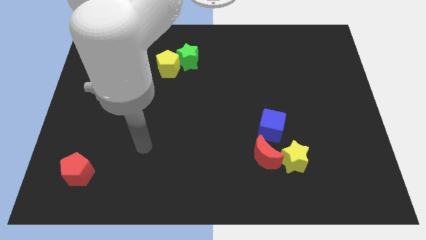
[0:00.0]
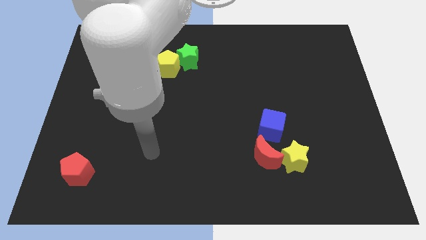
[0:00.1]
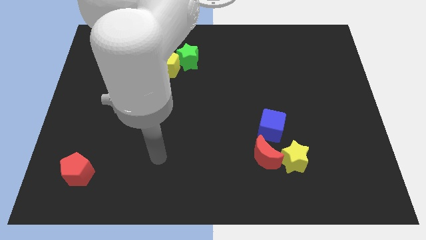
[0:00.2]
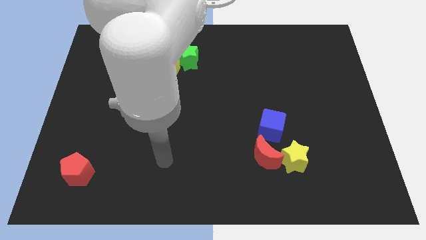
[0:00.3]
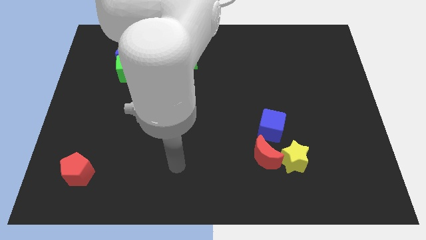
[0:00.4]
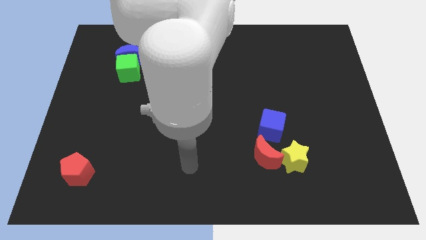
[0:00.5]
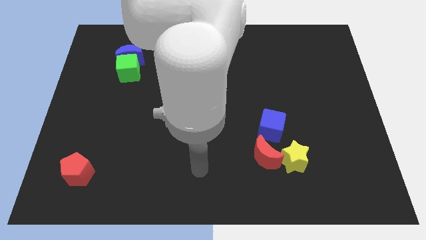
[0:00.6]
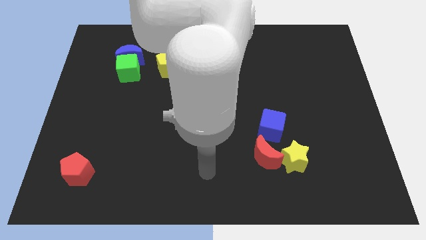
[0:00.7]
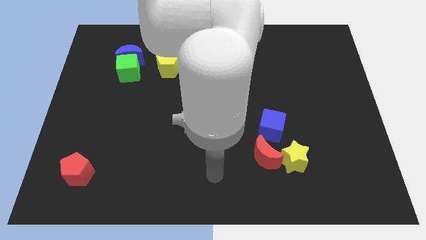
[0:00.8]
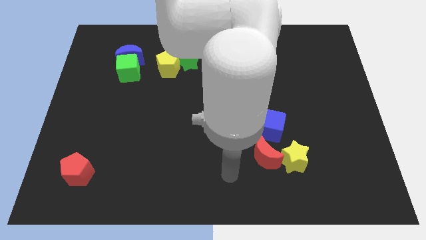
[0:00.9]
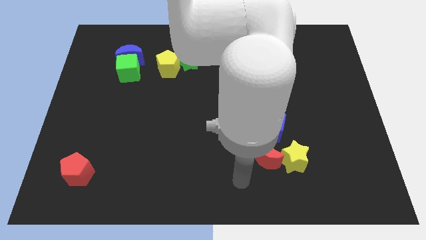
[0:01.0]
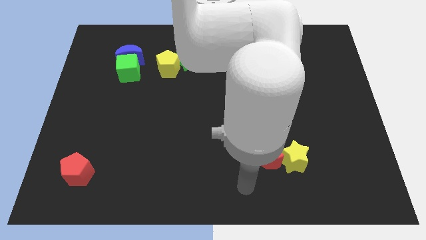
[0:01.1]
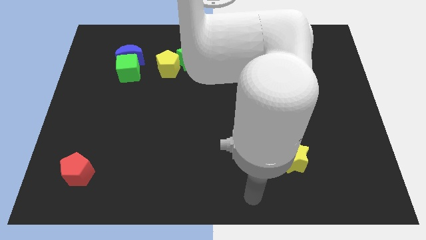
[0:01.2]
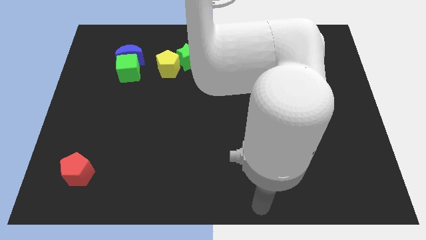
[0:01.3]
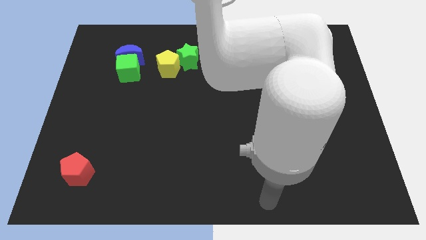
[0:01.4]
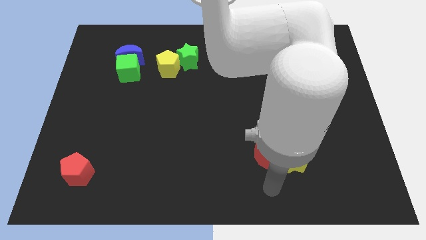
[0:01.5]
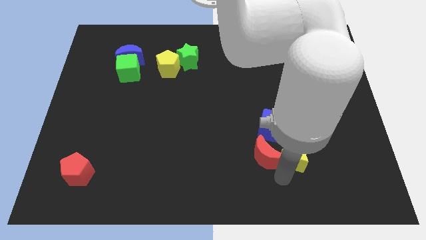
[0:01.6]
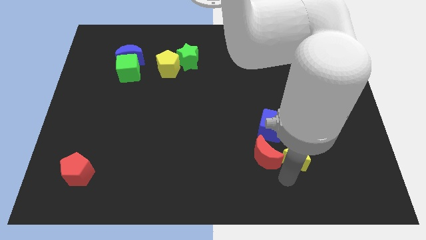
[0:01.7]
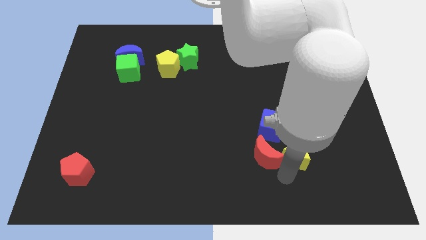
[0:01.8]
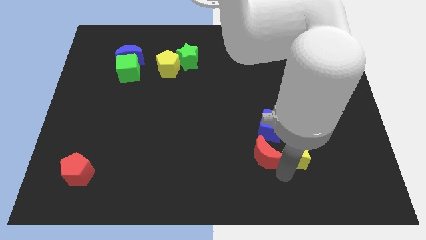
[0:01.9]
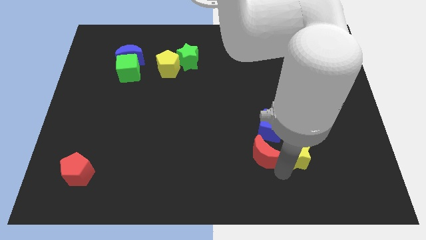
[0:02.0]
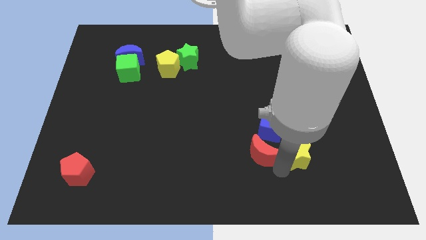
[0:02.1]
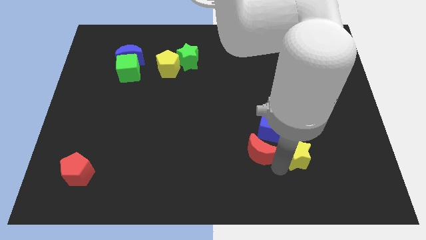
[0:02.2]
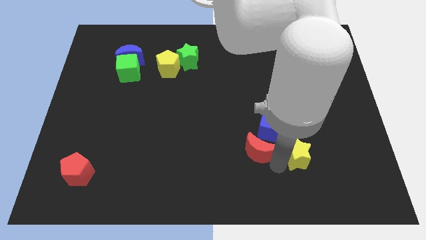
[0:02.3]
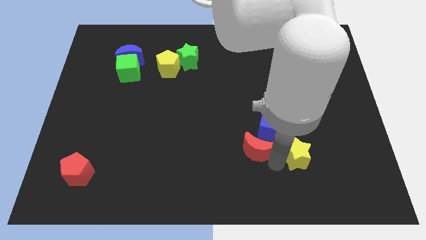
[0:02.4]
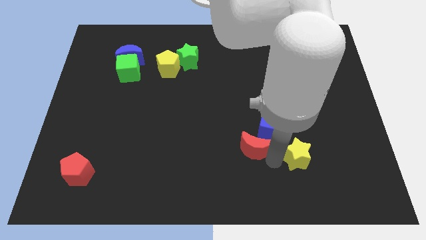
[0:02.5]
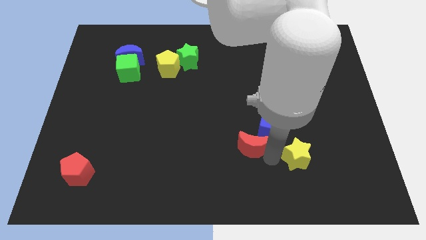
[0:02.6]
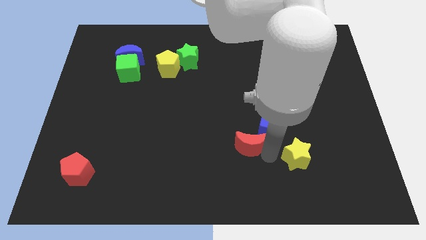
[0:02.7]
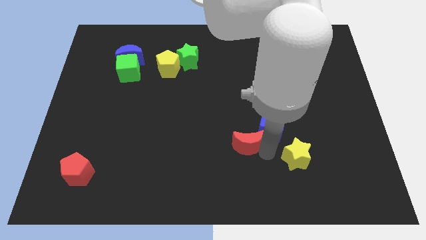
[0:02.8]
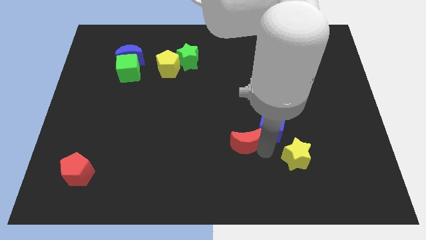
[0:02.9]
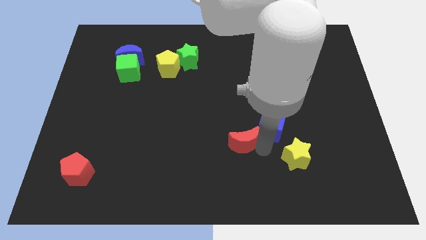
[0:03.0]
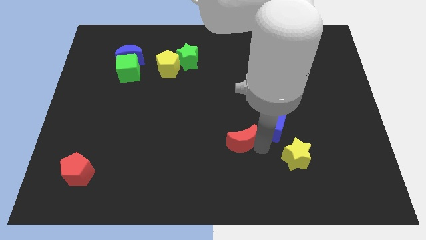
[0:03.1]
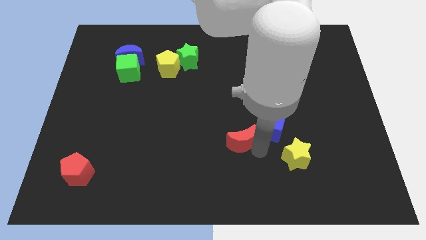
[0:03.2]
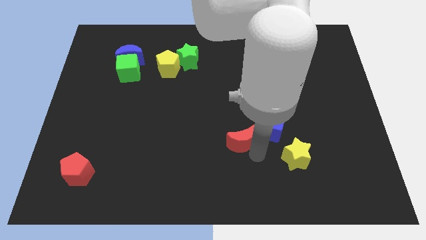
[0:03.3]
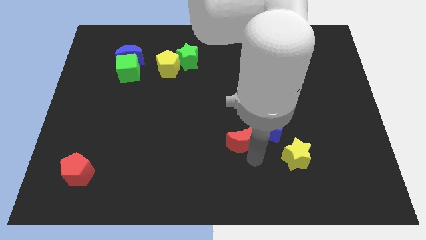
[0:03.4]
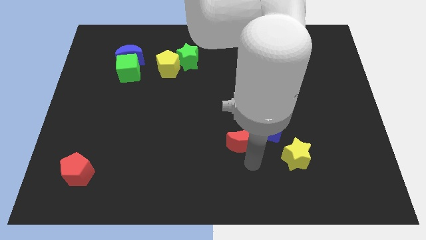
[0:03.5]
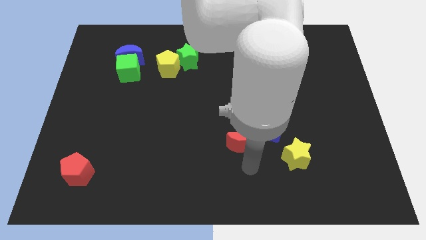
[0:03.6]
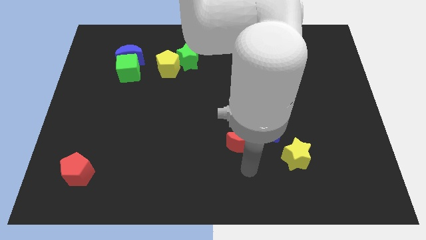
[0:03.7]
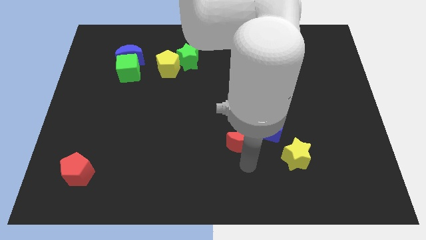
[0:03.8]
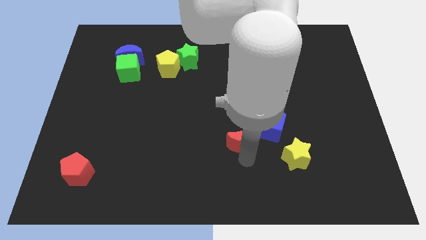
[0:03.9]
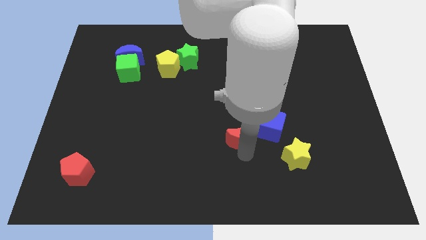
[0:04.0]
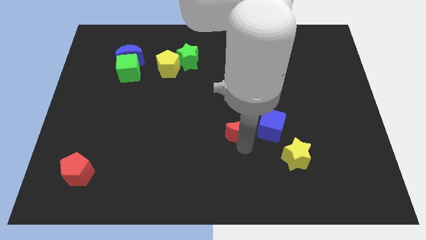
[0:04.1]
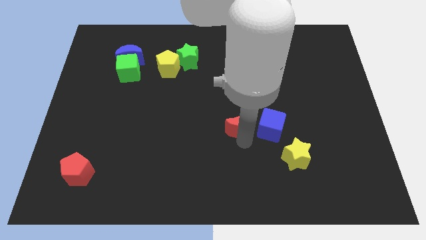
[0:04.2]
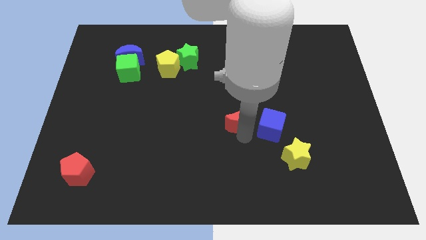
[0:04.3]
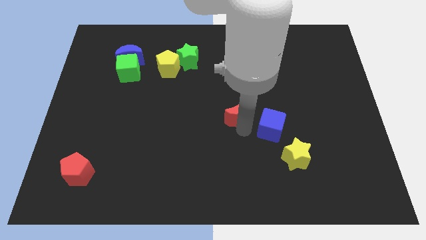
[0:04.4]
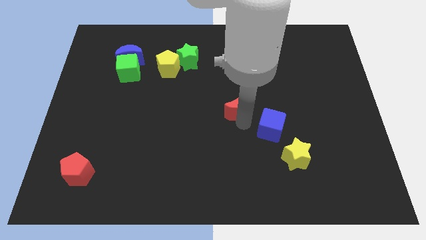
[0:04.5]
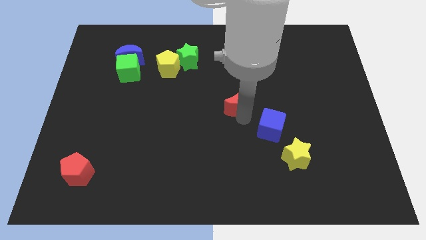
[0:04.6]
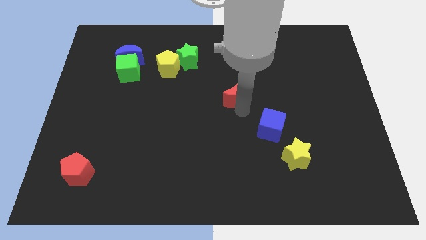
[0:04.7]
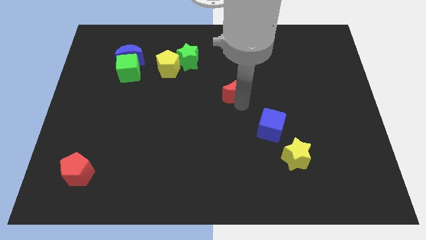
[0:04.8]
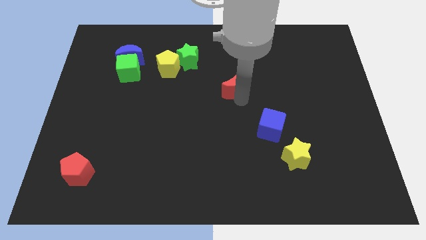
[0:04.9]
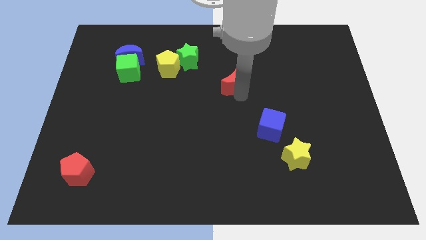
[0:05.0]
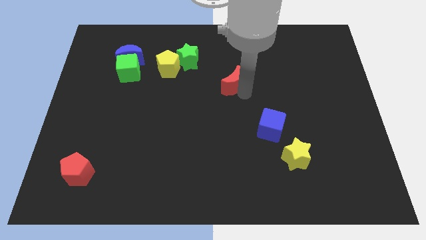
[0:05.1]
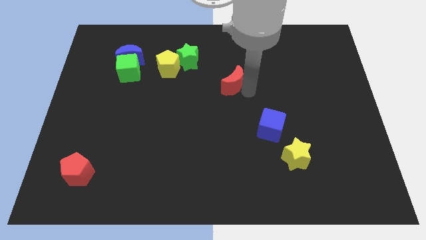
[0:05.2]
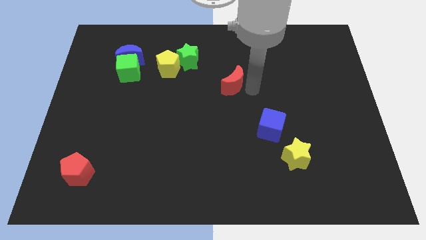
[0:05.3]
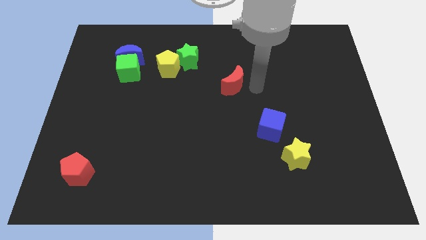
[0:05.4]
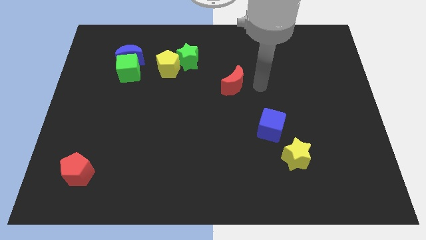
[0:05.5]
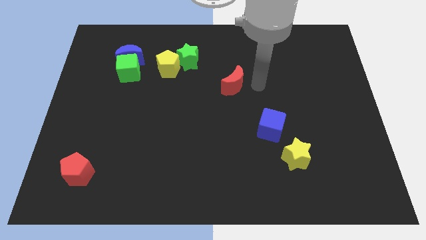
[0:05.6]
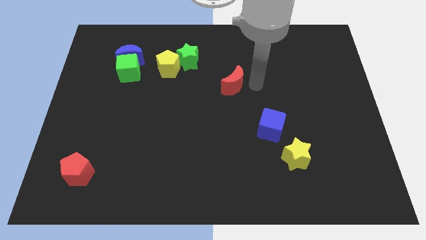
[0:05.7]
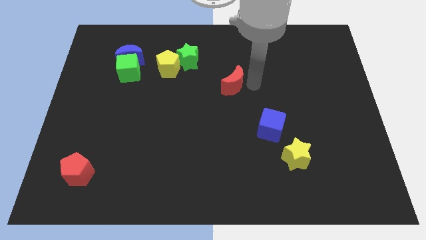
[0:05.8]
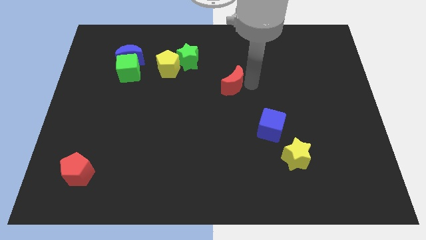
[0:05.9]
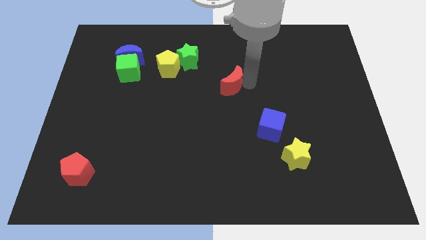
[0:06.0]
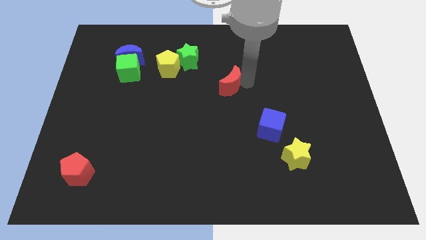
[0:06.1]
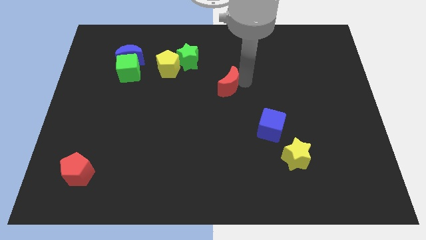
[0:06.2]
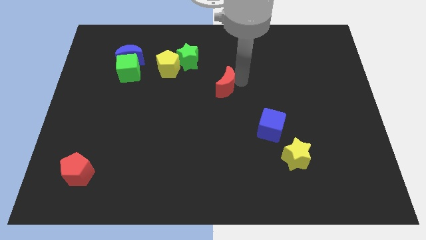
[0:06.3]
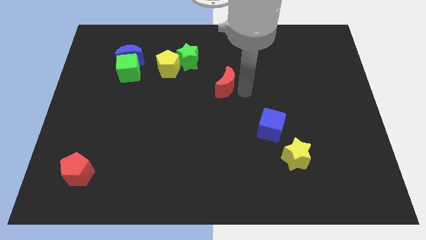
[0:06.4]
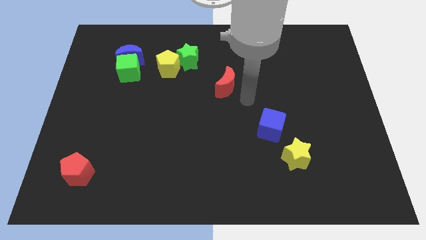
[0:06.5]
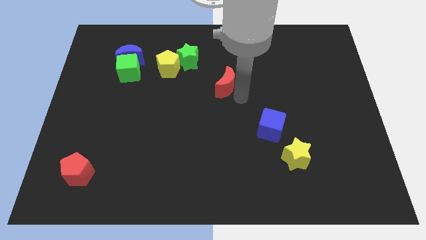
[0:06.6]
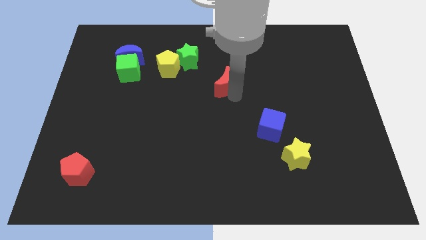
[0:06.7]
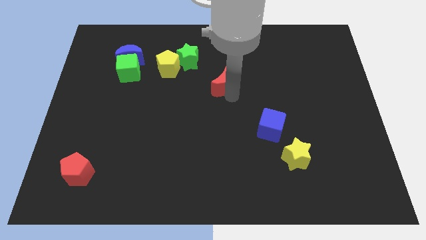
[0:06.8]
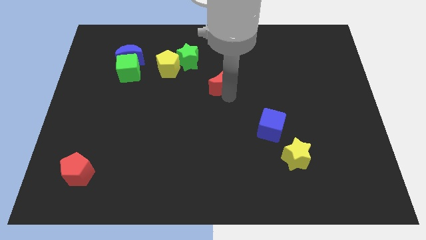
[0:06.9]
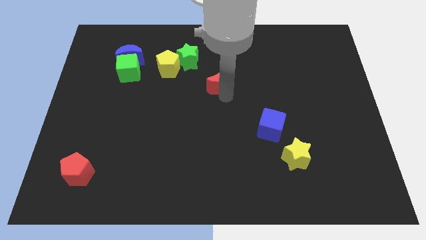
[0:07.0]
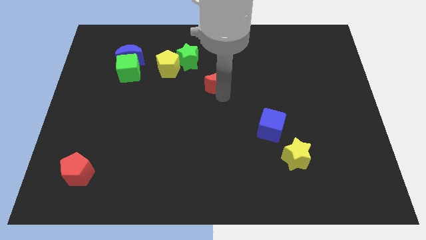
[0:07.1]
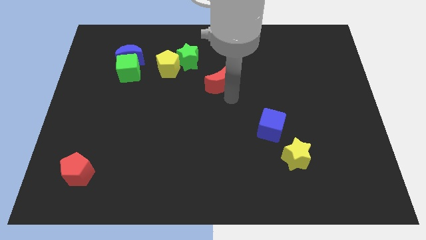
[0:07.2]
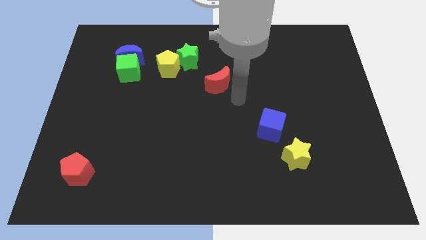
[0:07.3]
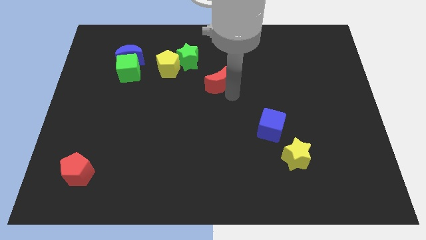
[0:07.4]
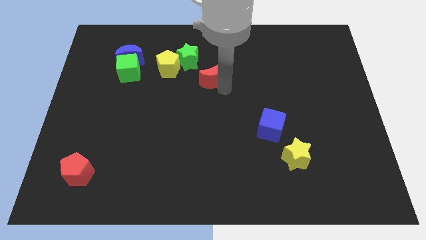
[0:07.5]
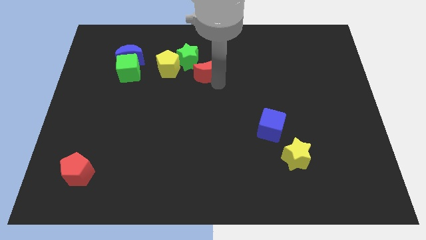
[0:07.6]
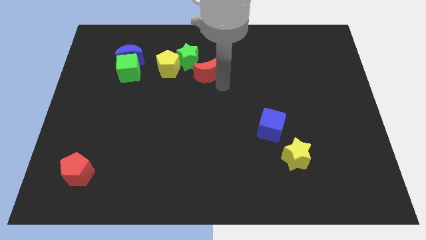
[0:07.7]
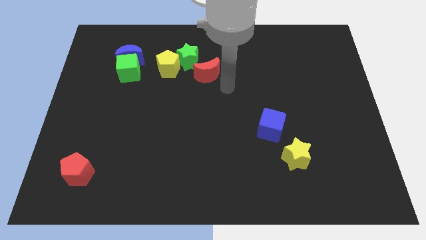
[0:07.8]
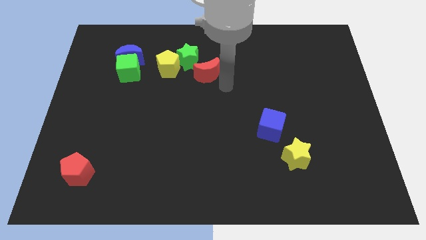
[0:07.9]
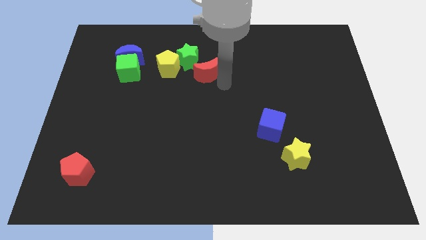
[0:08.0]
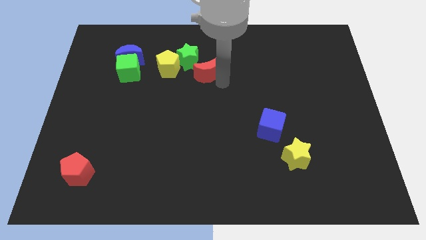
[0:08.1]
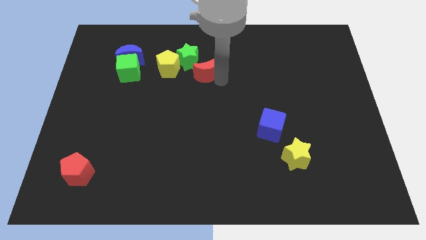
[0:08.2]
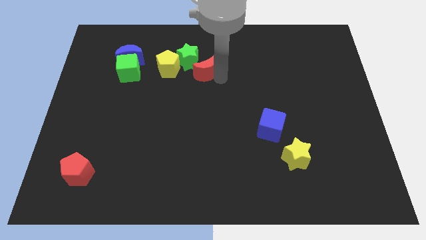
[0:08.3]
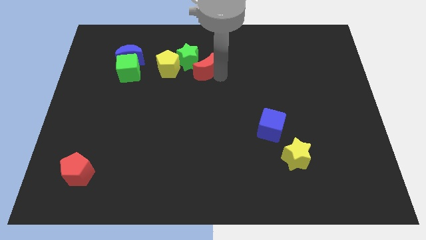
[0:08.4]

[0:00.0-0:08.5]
slide the red moon to the green star
